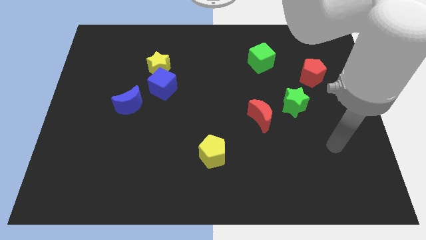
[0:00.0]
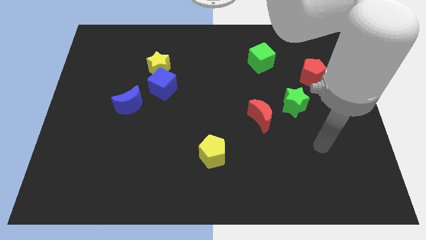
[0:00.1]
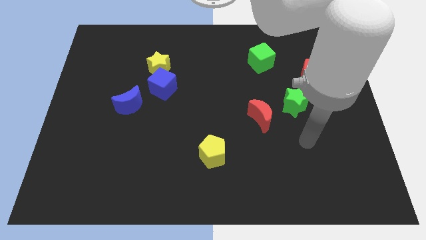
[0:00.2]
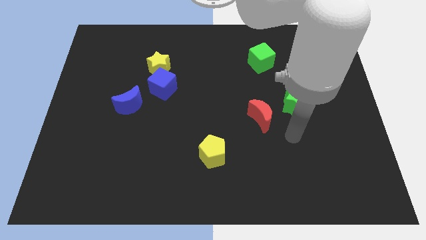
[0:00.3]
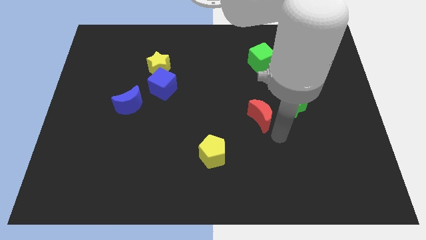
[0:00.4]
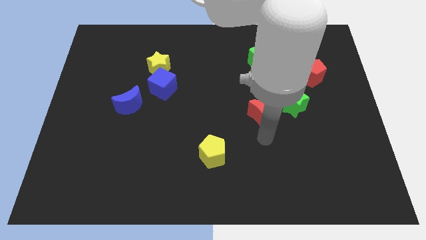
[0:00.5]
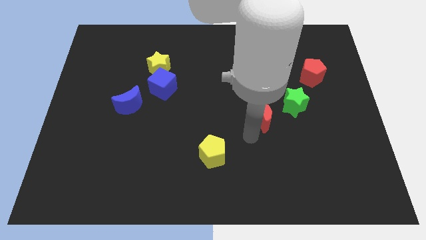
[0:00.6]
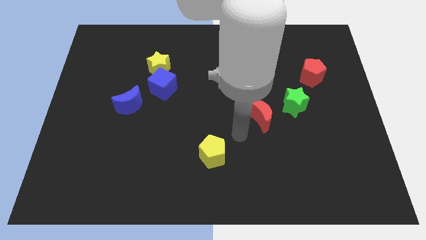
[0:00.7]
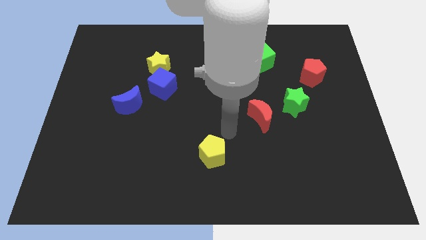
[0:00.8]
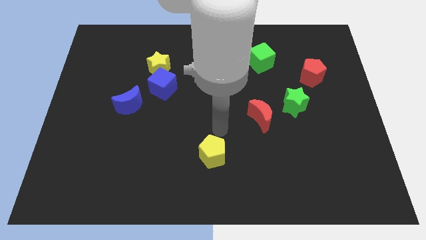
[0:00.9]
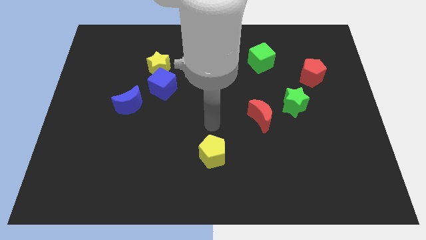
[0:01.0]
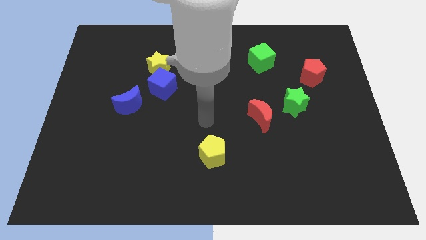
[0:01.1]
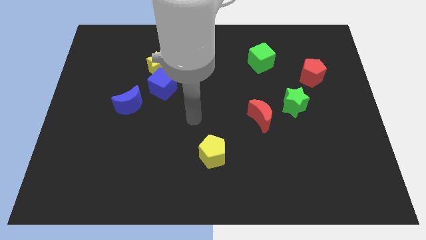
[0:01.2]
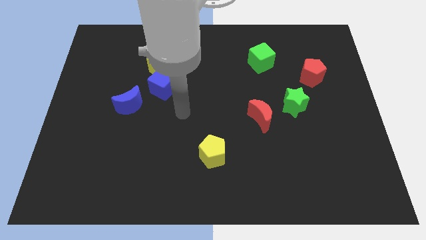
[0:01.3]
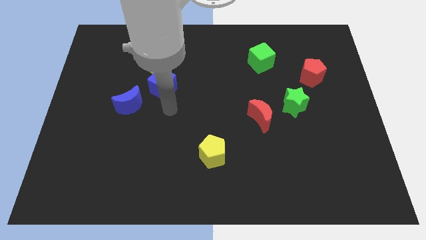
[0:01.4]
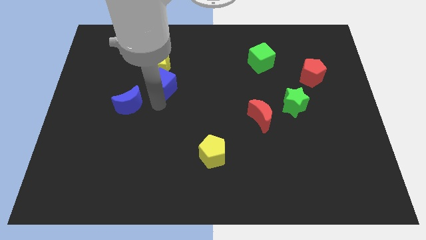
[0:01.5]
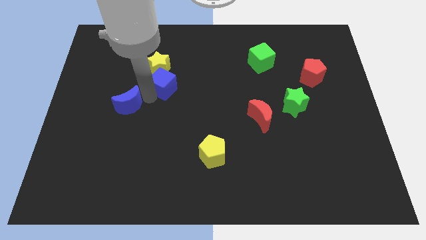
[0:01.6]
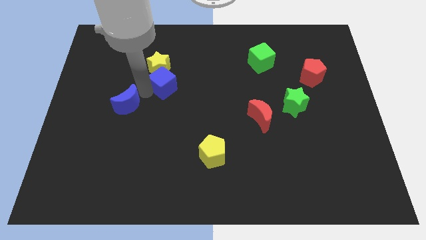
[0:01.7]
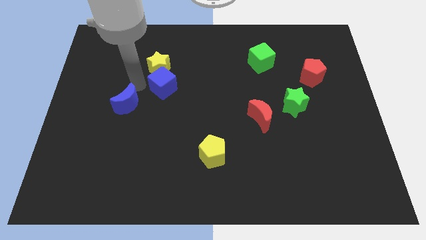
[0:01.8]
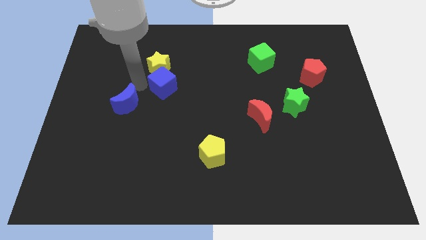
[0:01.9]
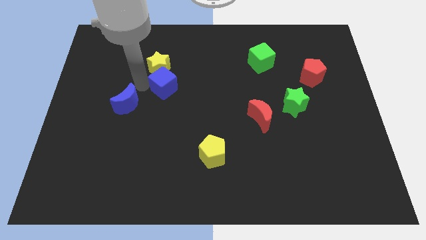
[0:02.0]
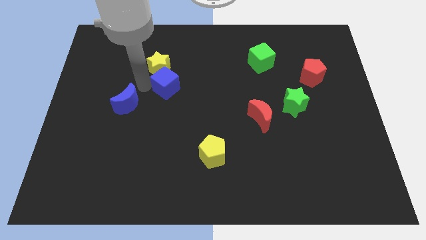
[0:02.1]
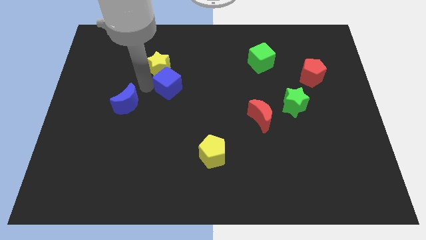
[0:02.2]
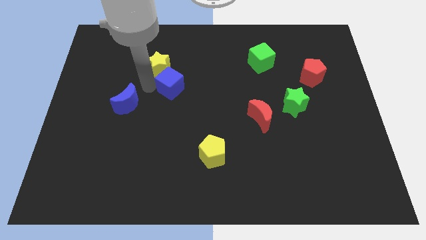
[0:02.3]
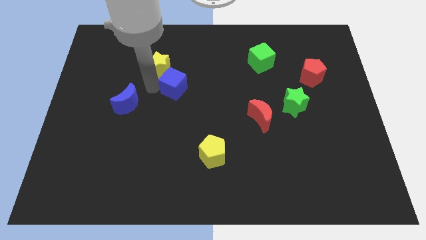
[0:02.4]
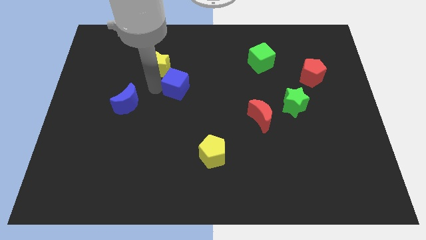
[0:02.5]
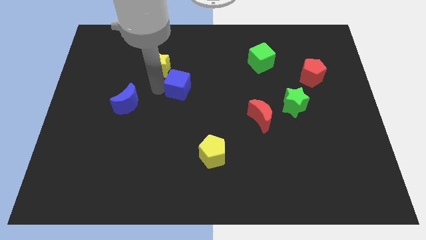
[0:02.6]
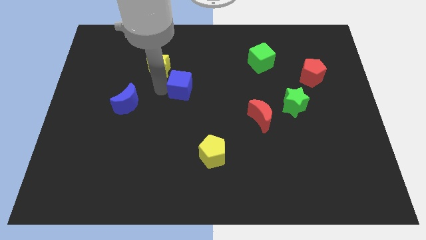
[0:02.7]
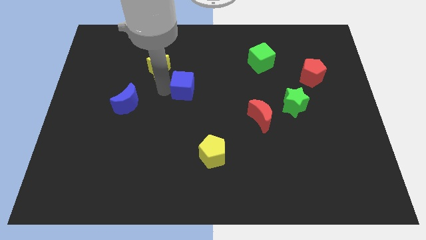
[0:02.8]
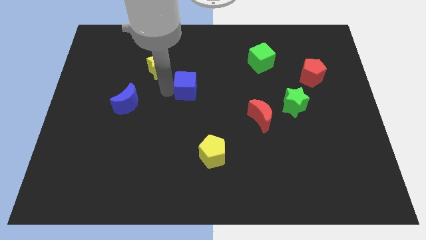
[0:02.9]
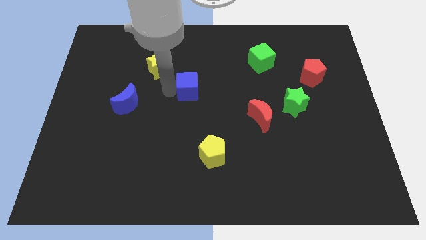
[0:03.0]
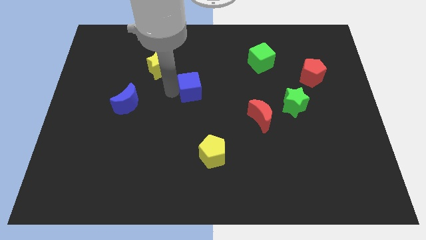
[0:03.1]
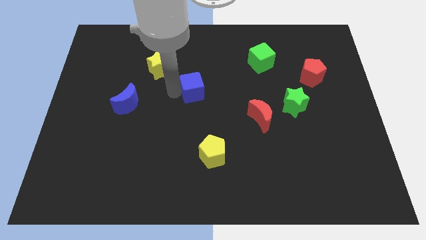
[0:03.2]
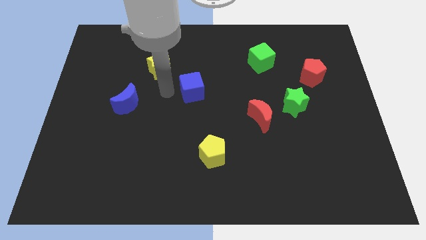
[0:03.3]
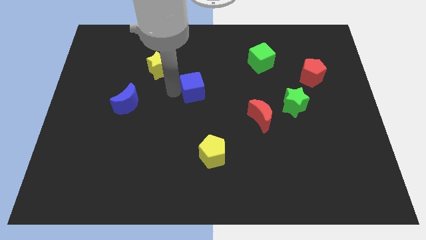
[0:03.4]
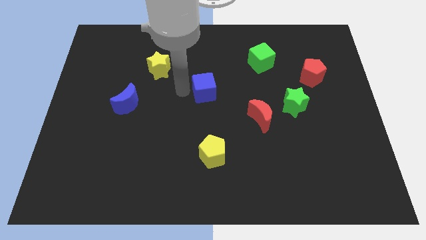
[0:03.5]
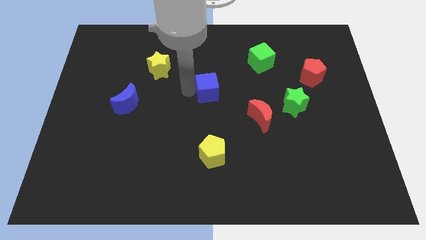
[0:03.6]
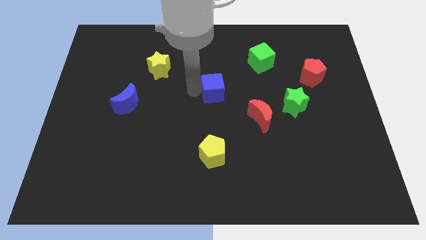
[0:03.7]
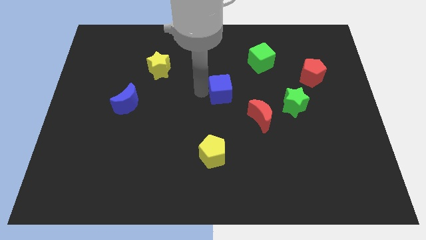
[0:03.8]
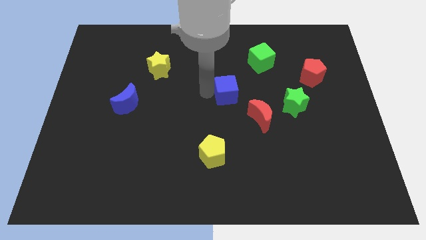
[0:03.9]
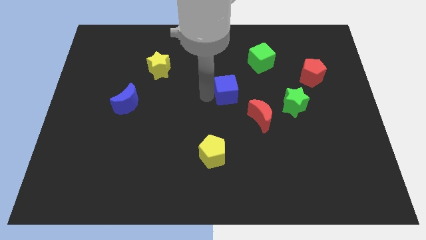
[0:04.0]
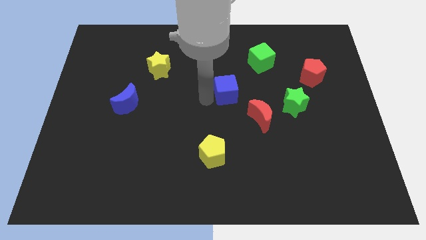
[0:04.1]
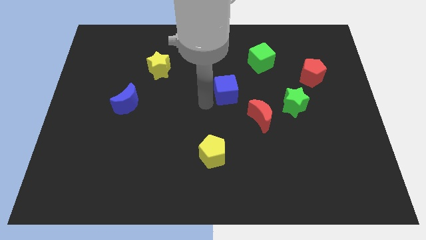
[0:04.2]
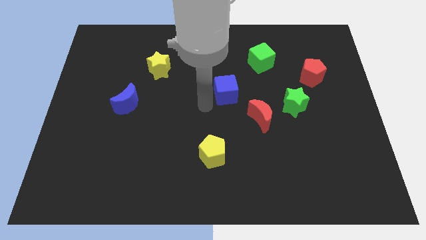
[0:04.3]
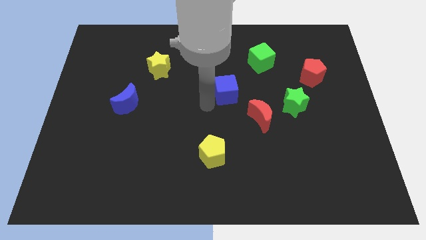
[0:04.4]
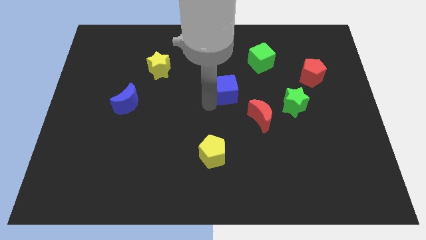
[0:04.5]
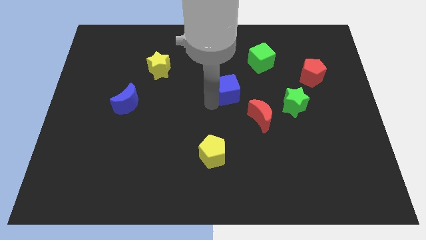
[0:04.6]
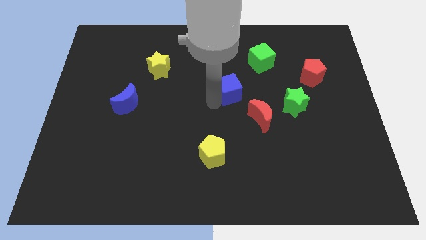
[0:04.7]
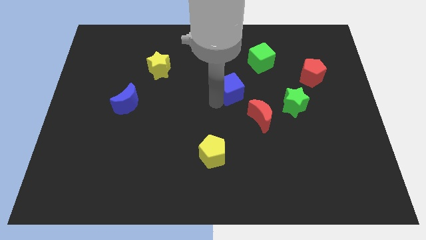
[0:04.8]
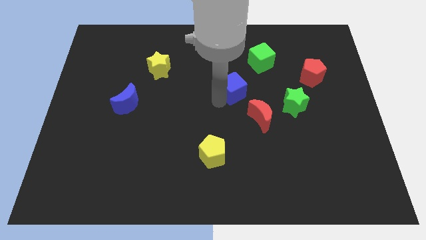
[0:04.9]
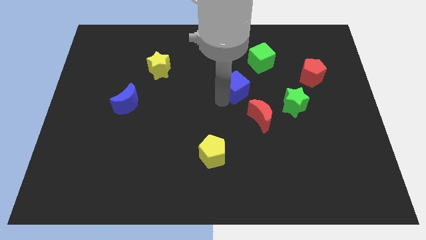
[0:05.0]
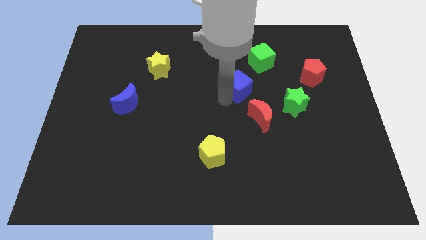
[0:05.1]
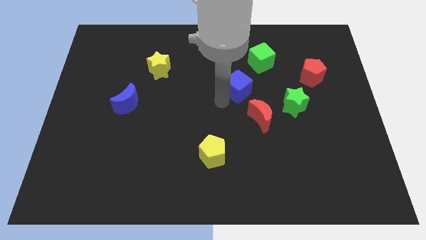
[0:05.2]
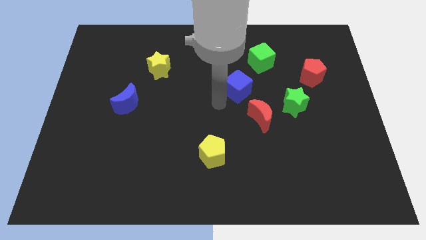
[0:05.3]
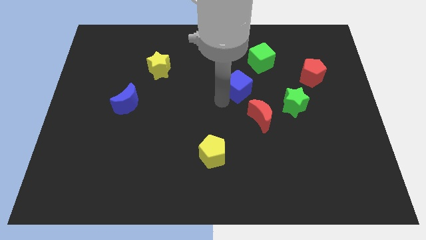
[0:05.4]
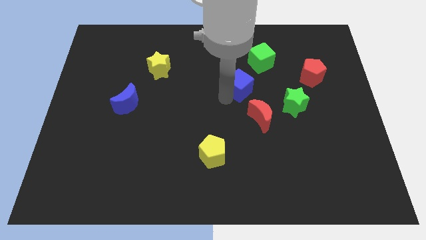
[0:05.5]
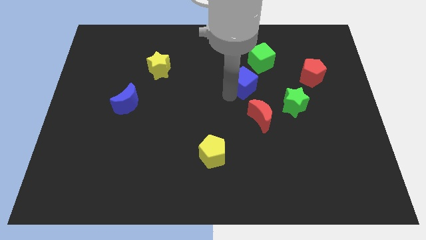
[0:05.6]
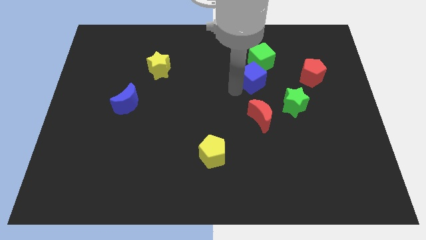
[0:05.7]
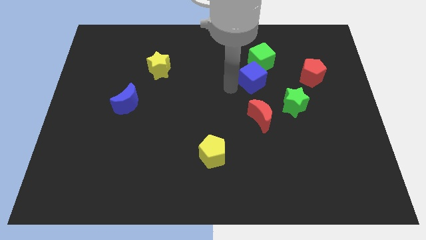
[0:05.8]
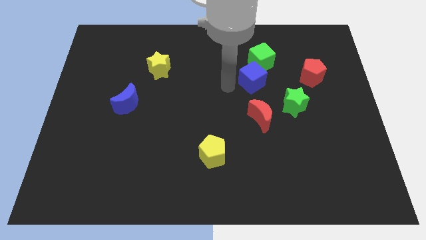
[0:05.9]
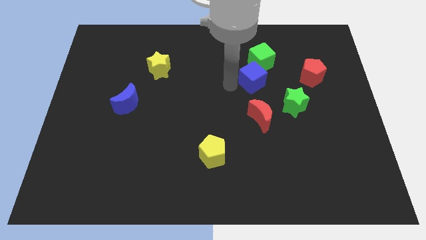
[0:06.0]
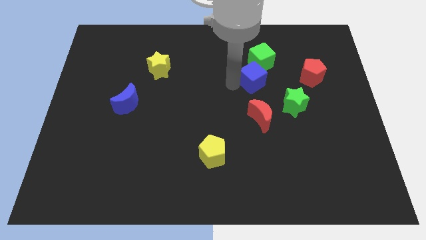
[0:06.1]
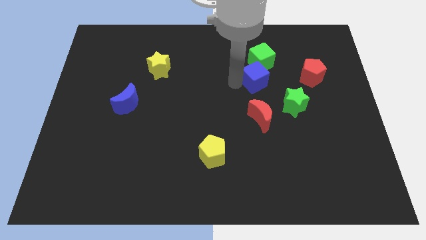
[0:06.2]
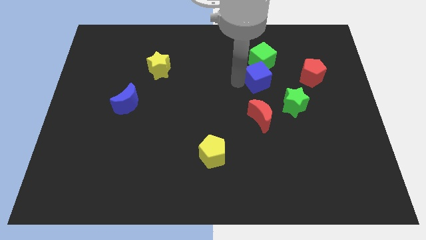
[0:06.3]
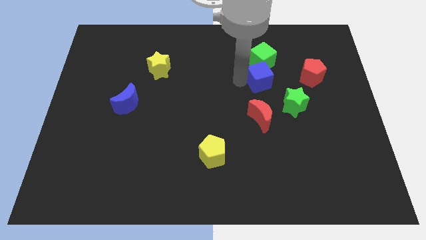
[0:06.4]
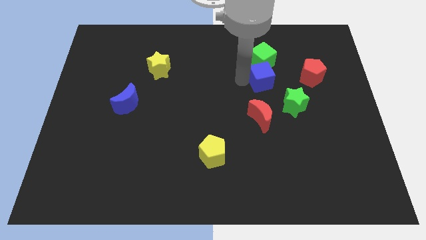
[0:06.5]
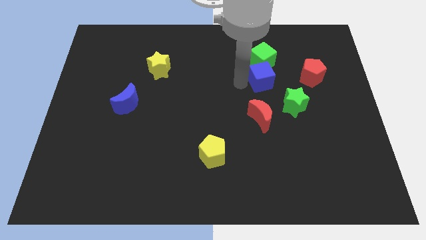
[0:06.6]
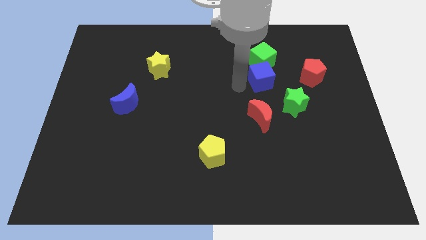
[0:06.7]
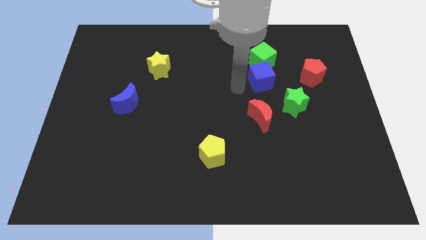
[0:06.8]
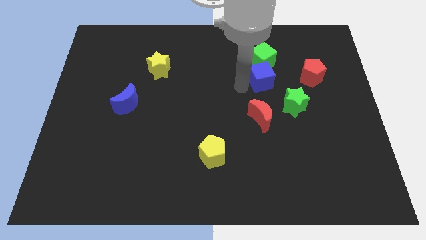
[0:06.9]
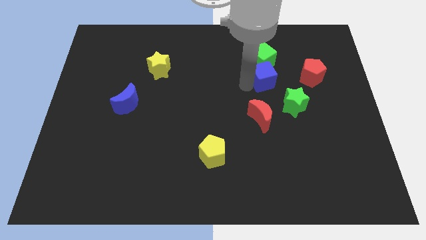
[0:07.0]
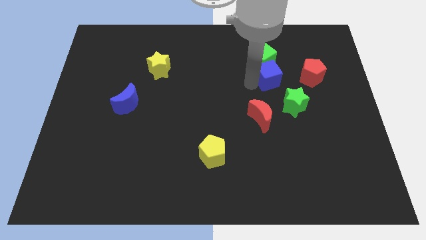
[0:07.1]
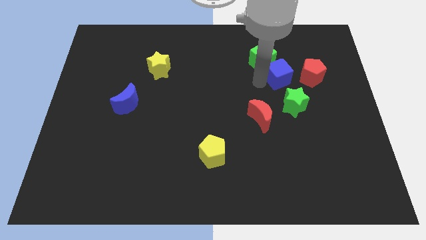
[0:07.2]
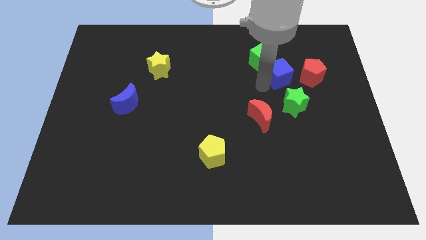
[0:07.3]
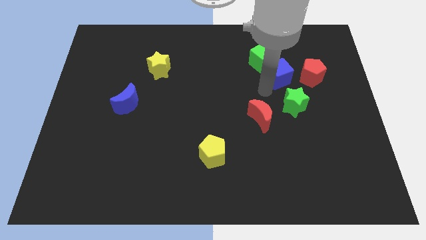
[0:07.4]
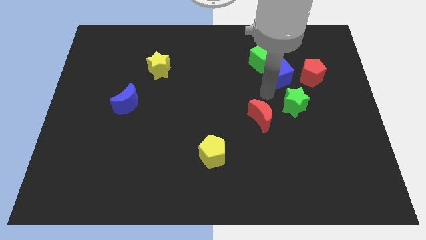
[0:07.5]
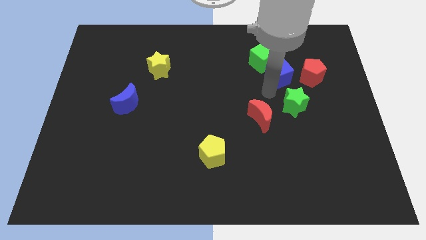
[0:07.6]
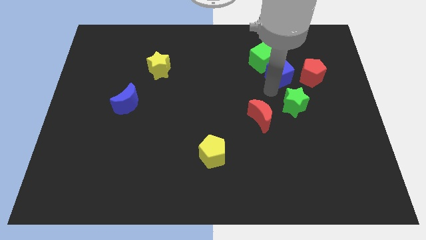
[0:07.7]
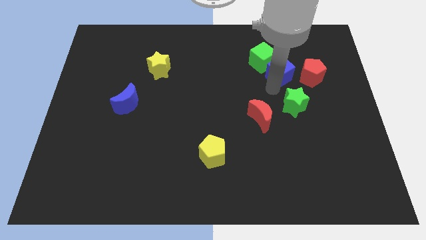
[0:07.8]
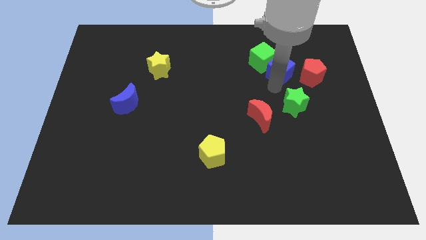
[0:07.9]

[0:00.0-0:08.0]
move the blue cube to the top left of the red pentagon
